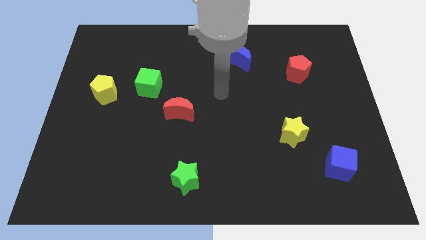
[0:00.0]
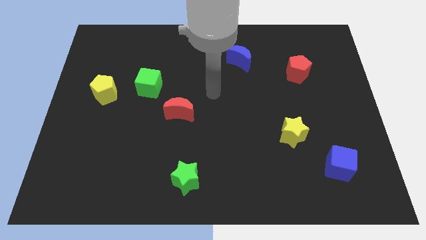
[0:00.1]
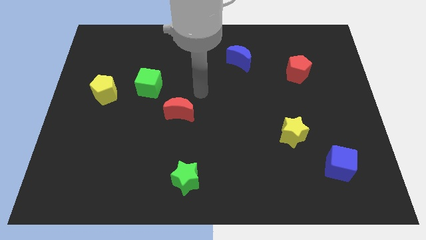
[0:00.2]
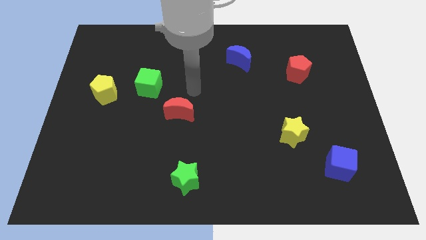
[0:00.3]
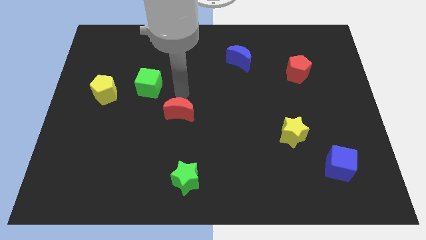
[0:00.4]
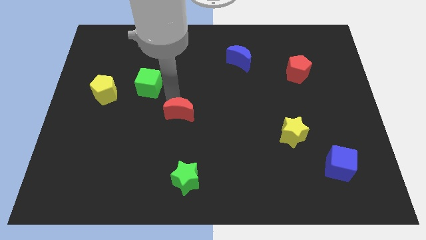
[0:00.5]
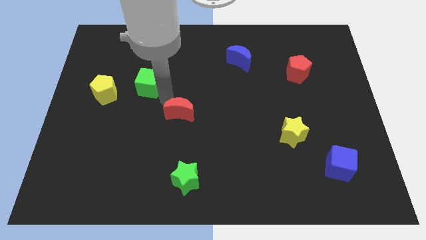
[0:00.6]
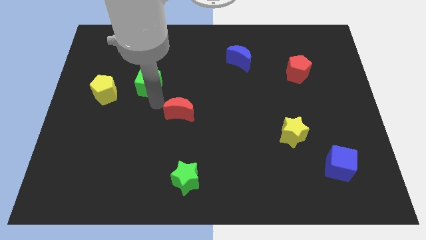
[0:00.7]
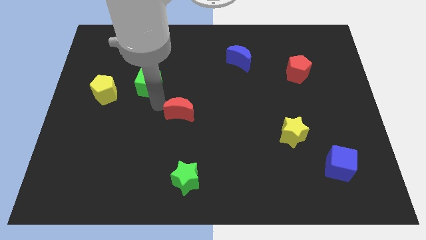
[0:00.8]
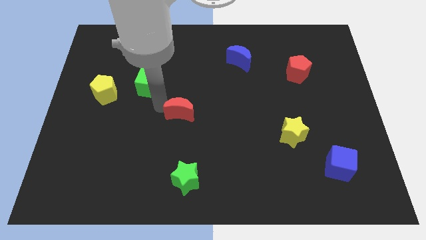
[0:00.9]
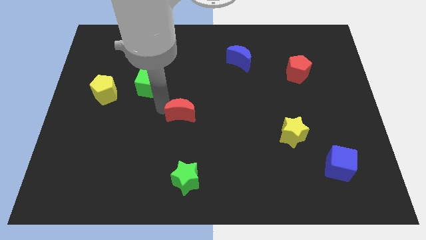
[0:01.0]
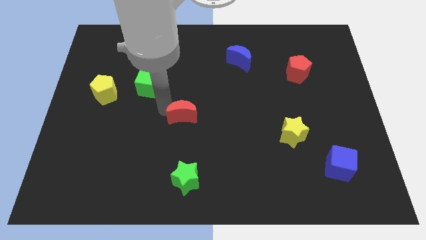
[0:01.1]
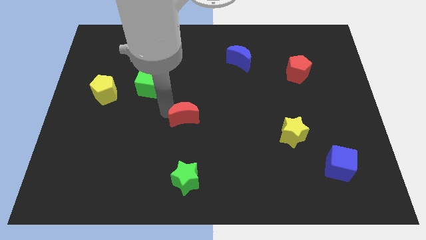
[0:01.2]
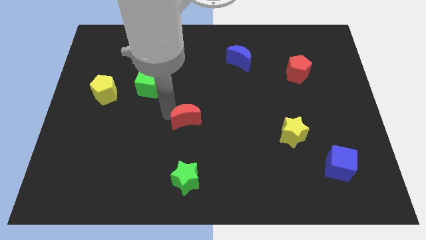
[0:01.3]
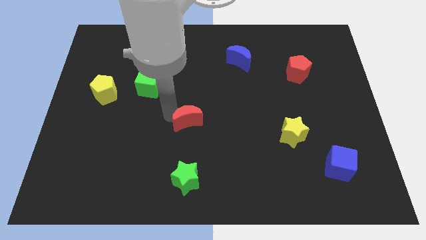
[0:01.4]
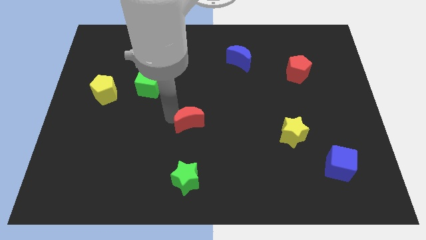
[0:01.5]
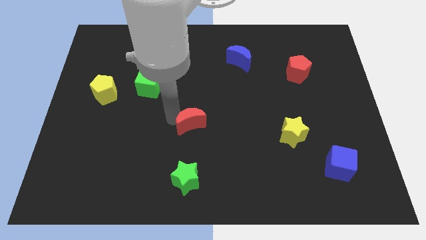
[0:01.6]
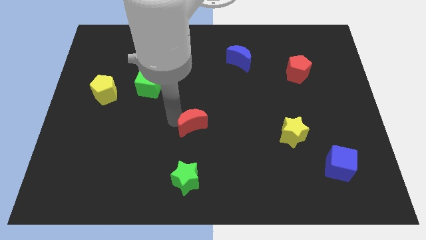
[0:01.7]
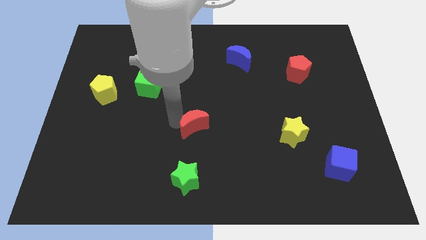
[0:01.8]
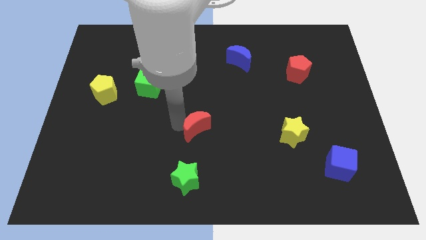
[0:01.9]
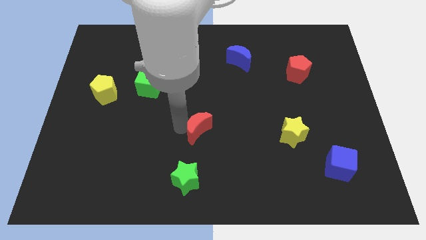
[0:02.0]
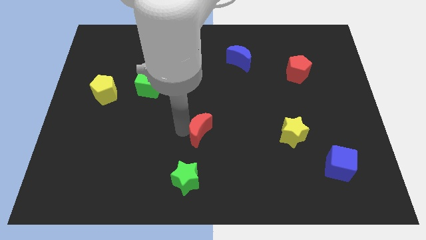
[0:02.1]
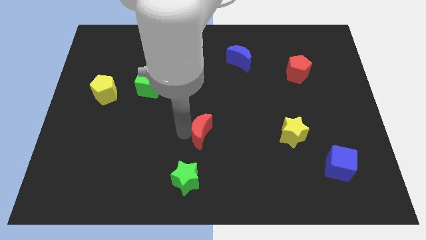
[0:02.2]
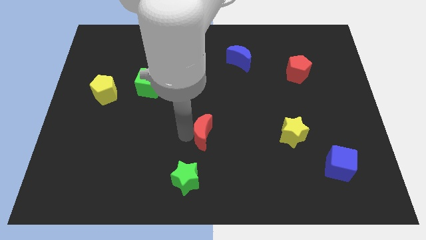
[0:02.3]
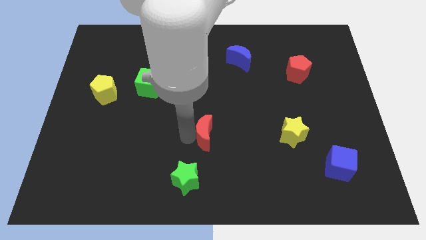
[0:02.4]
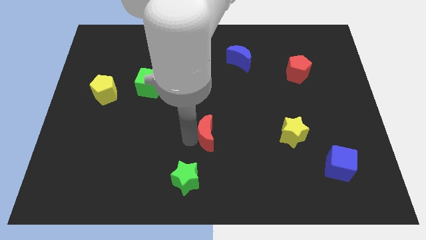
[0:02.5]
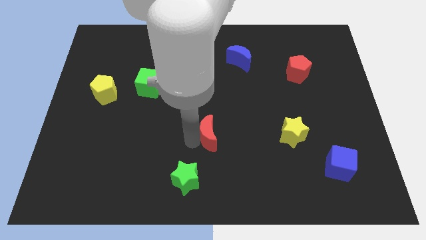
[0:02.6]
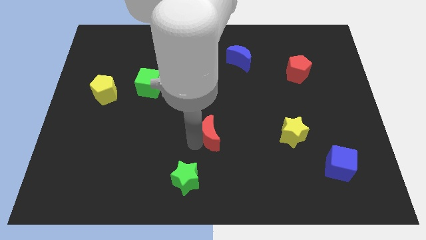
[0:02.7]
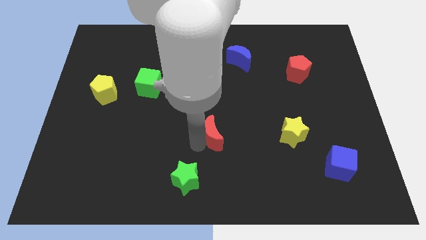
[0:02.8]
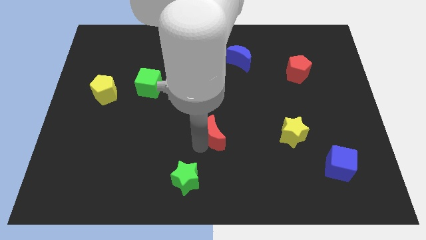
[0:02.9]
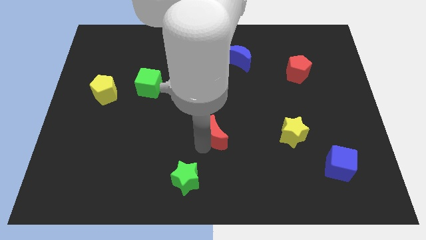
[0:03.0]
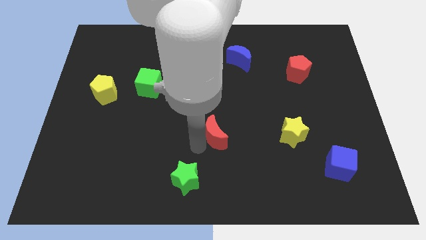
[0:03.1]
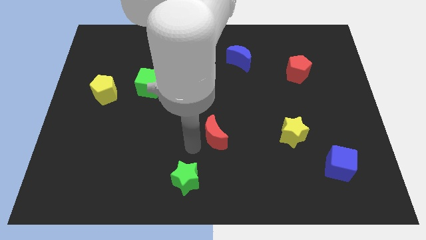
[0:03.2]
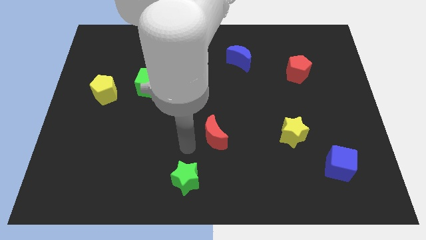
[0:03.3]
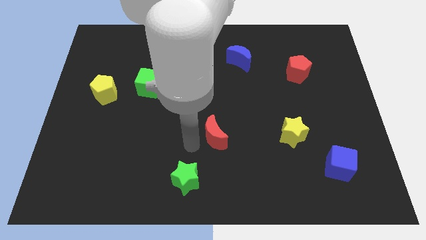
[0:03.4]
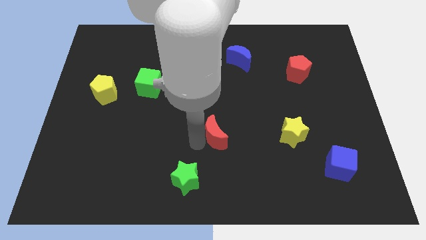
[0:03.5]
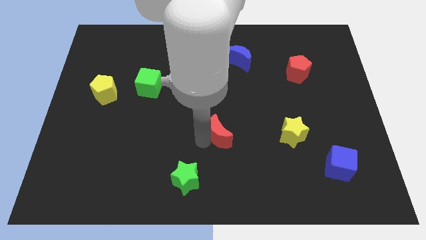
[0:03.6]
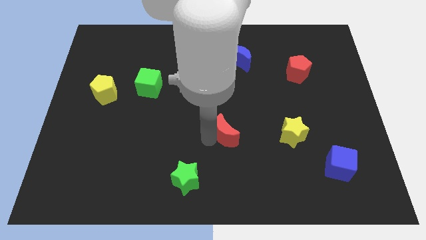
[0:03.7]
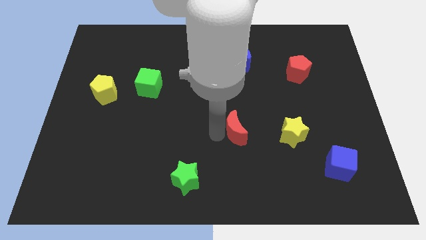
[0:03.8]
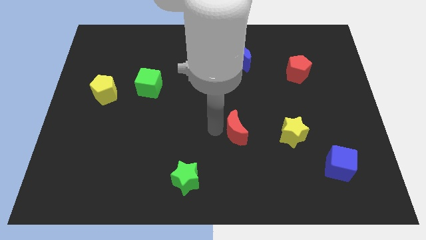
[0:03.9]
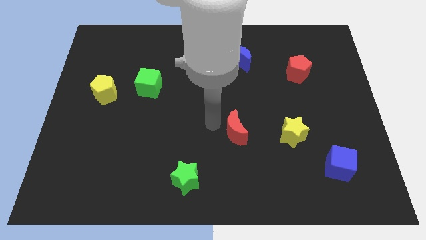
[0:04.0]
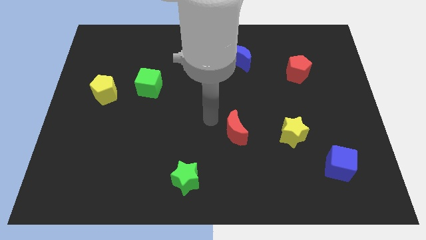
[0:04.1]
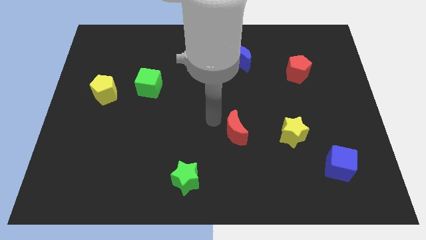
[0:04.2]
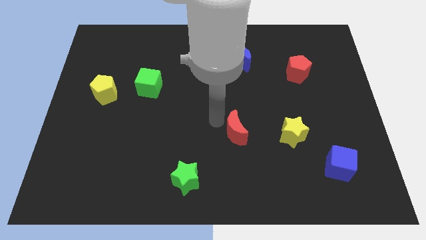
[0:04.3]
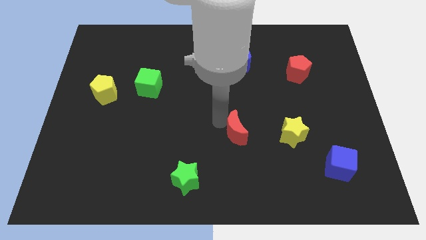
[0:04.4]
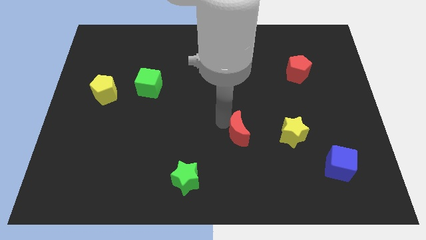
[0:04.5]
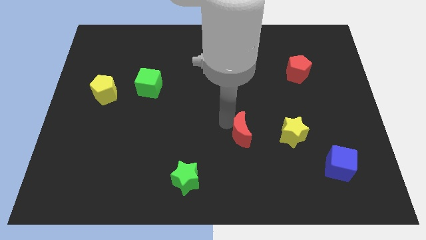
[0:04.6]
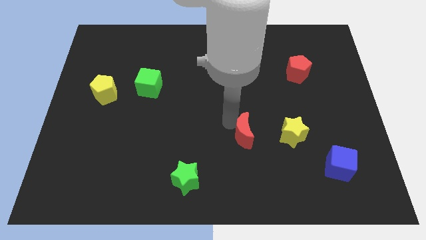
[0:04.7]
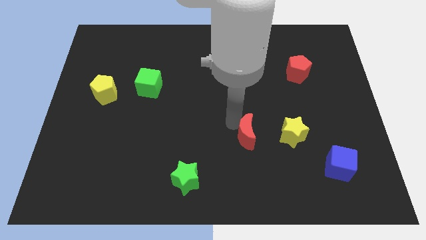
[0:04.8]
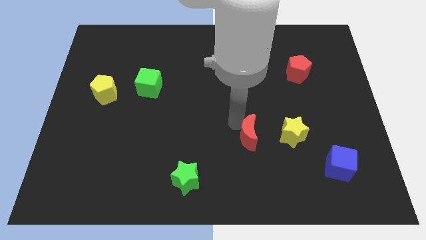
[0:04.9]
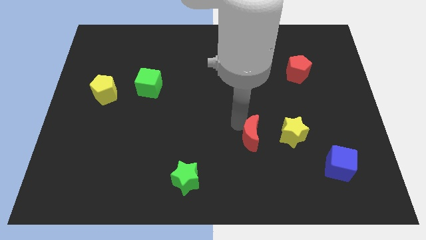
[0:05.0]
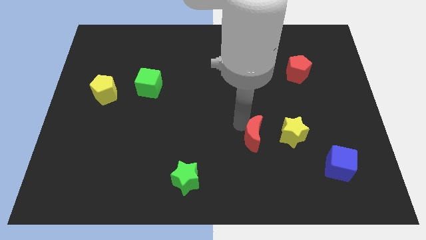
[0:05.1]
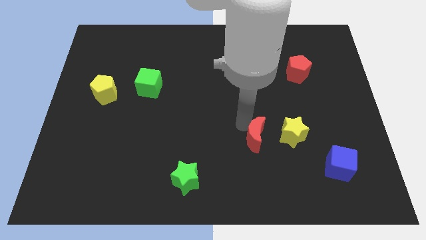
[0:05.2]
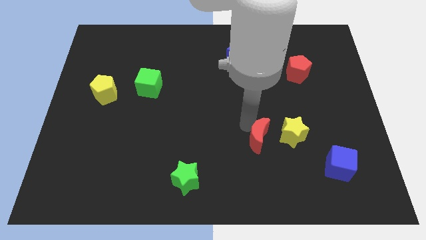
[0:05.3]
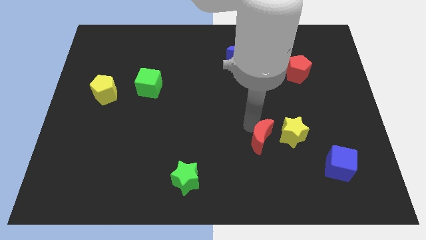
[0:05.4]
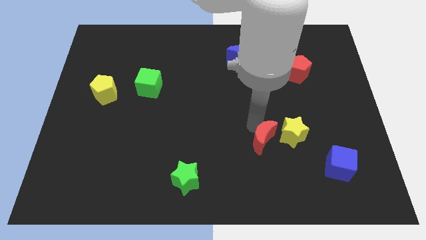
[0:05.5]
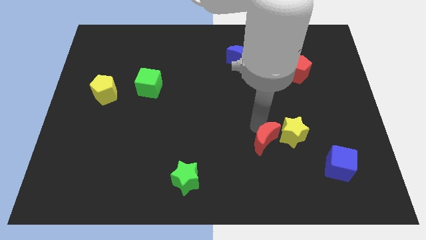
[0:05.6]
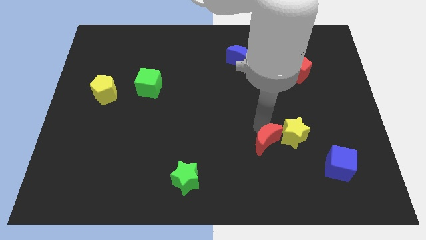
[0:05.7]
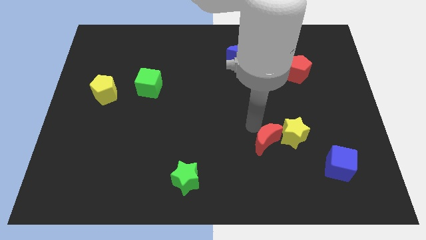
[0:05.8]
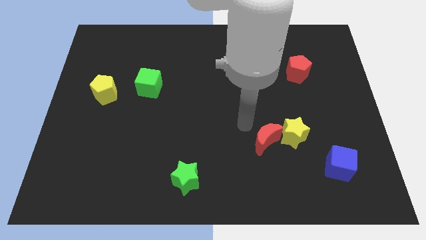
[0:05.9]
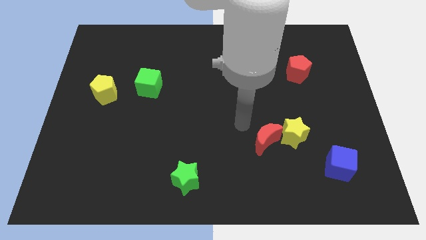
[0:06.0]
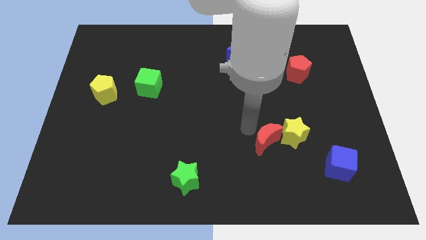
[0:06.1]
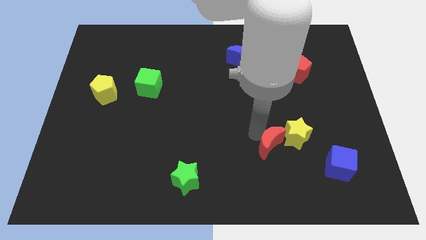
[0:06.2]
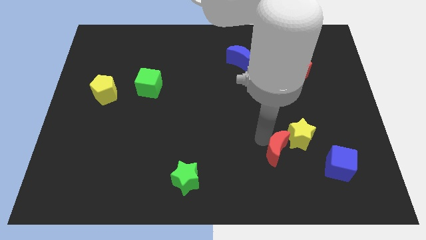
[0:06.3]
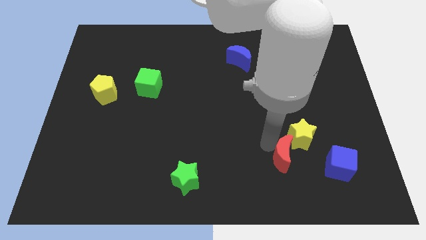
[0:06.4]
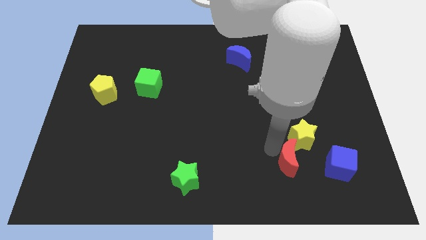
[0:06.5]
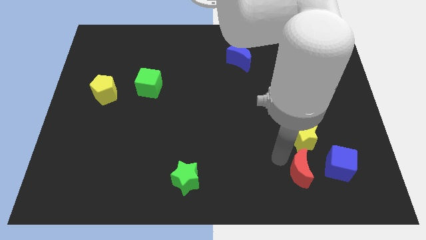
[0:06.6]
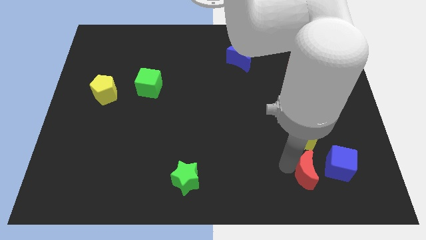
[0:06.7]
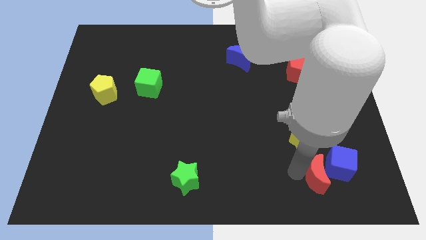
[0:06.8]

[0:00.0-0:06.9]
put the red moon towards the blue cube
